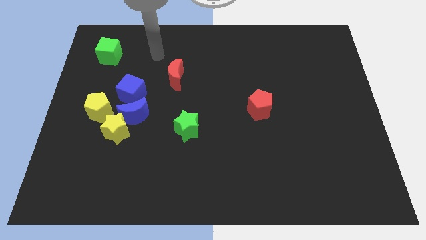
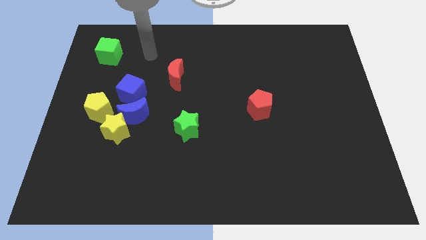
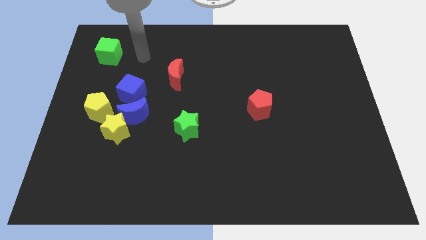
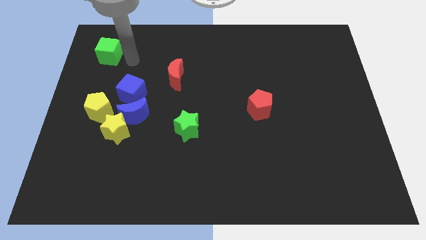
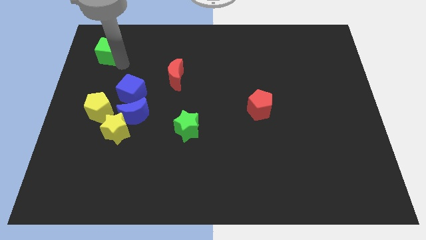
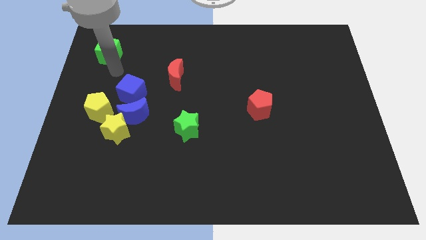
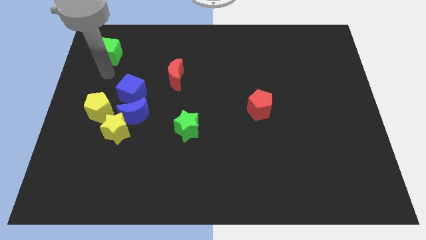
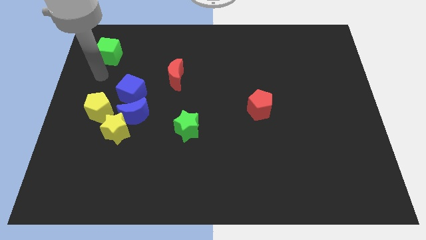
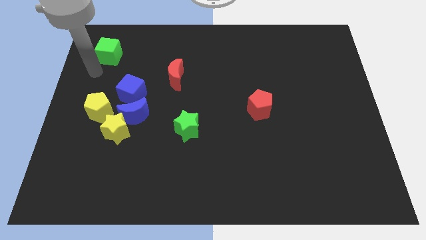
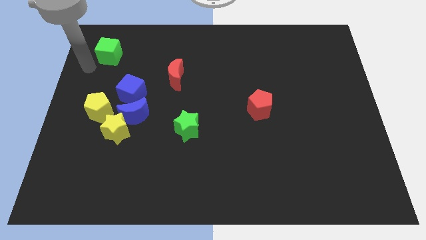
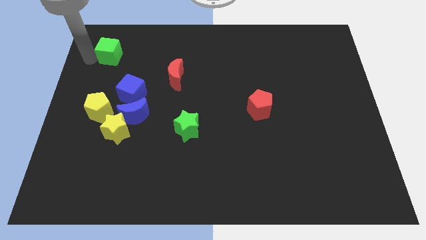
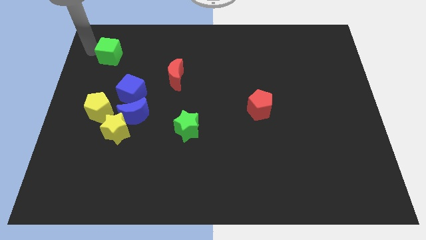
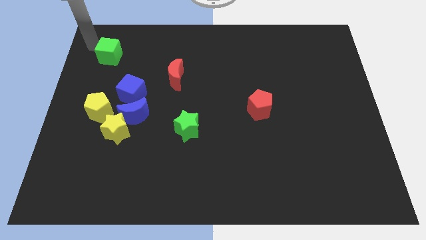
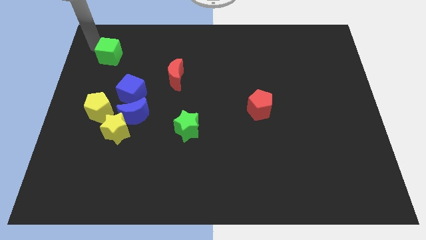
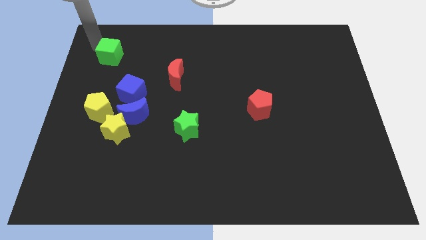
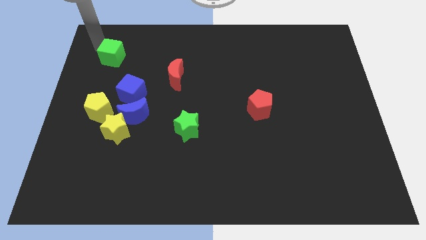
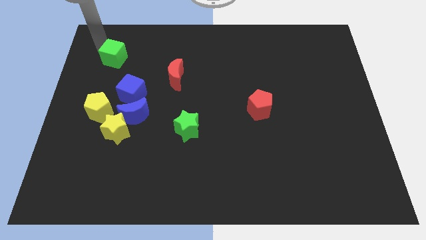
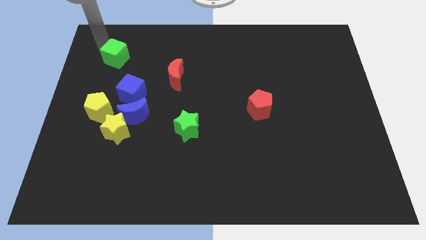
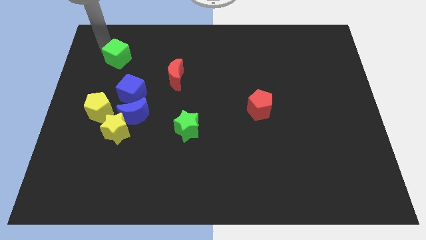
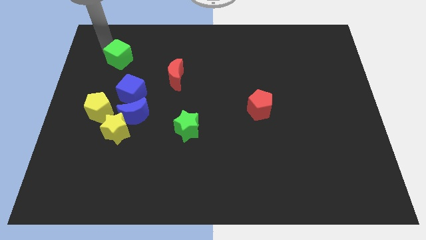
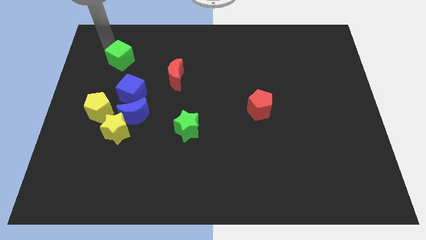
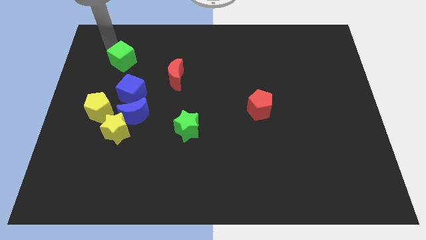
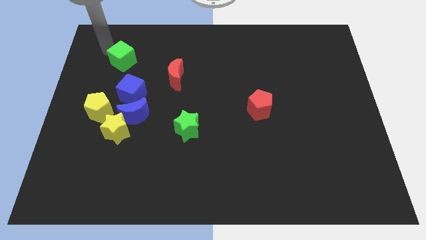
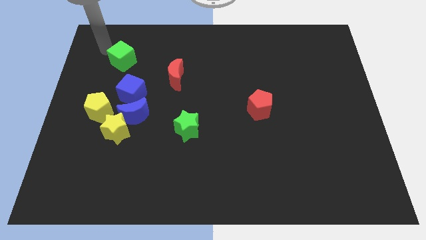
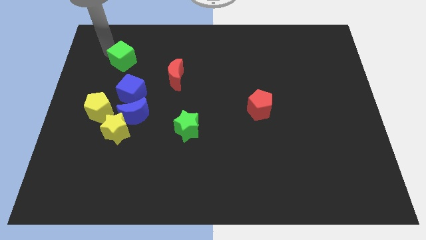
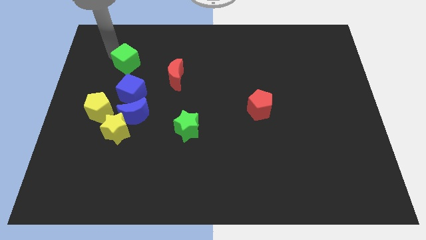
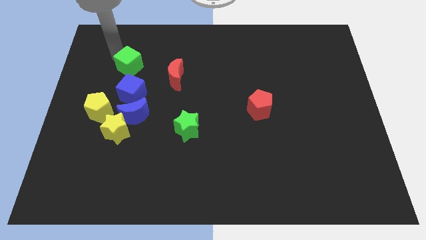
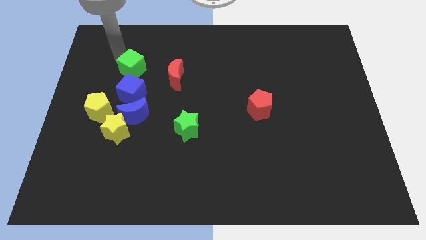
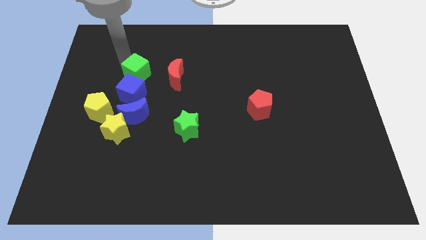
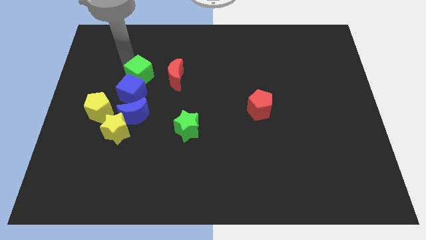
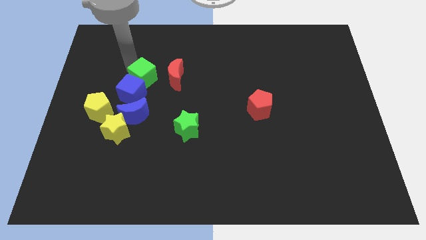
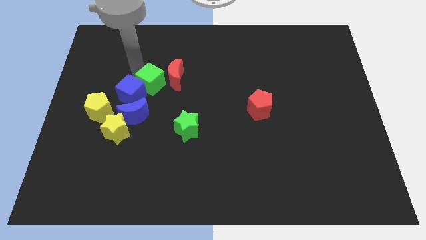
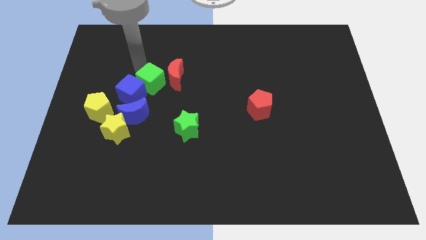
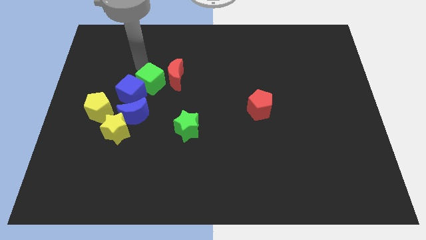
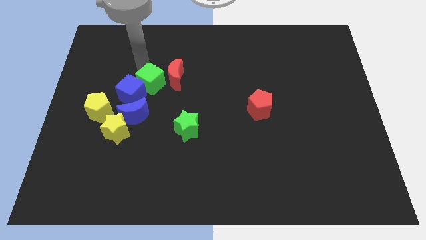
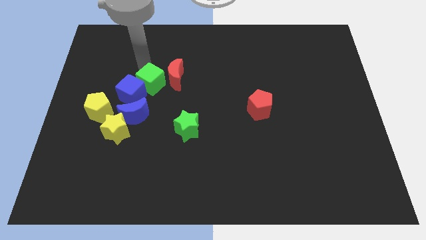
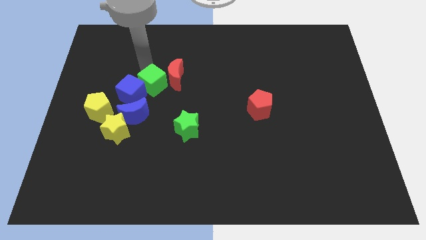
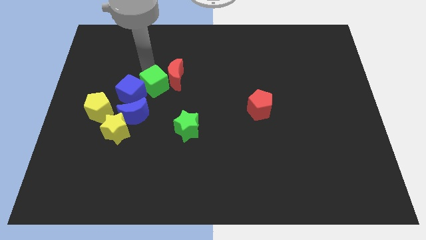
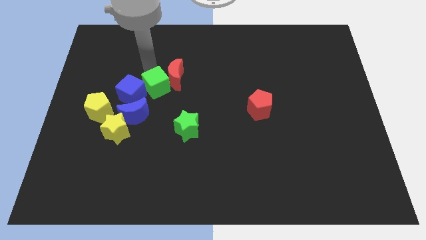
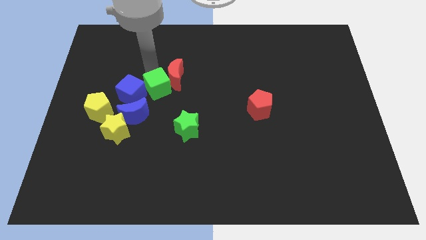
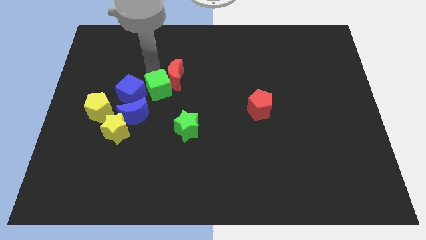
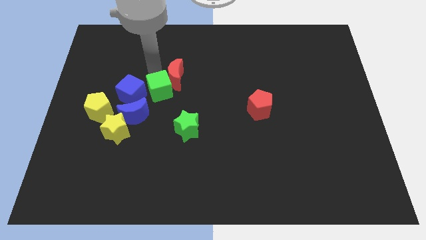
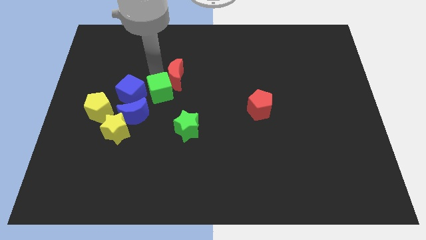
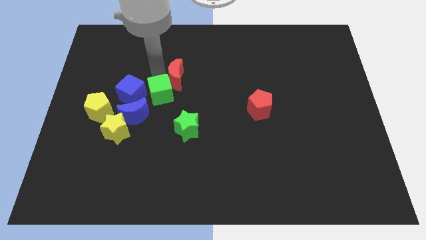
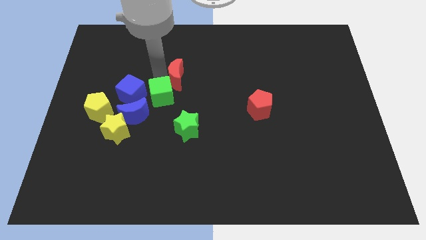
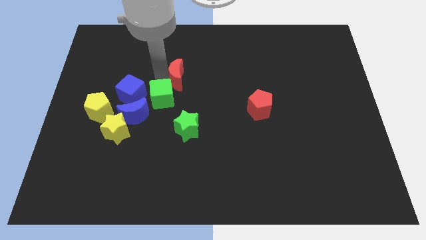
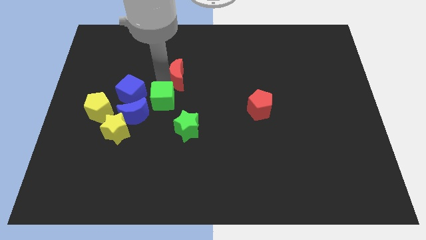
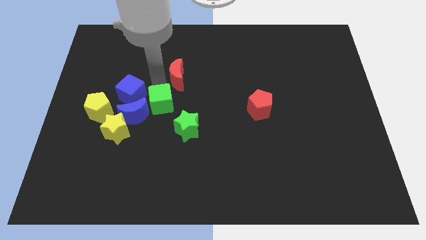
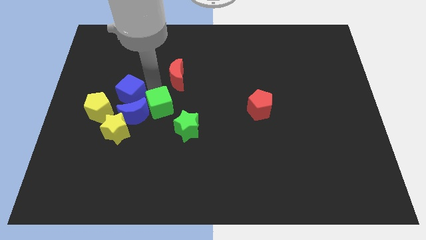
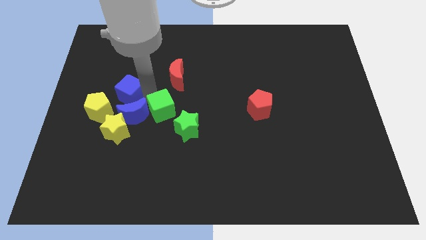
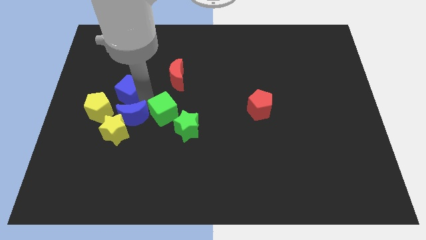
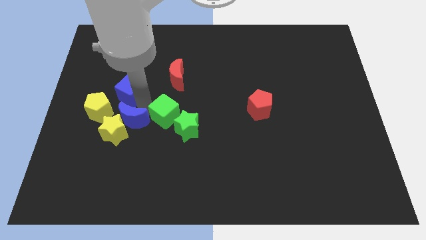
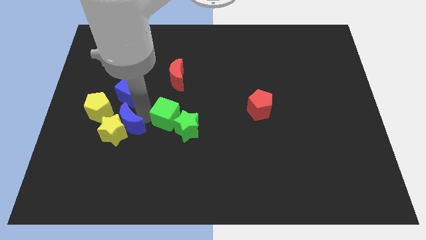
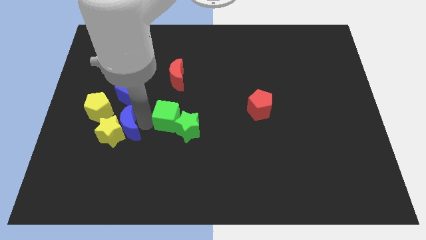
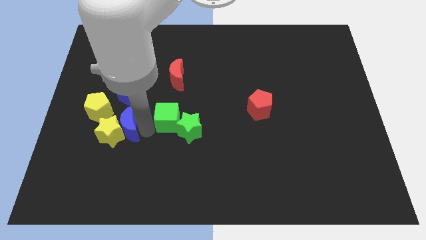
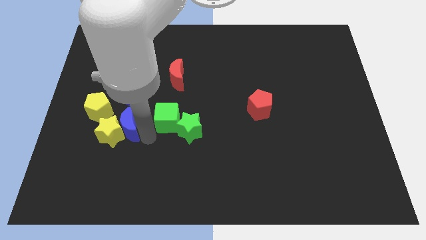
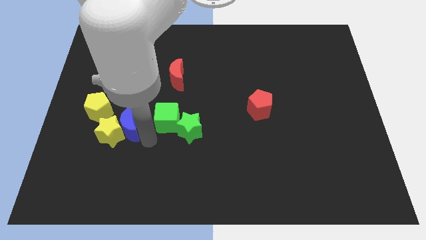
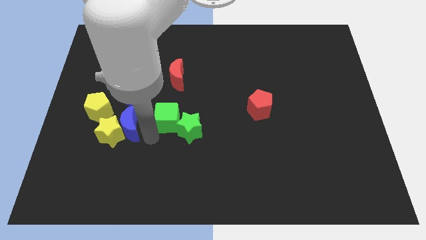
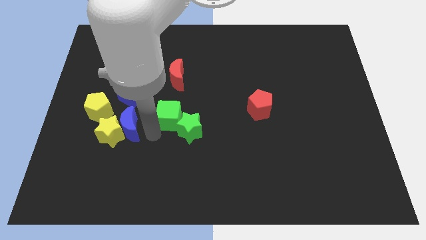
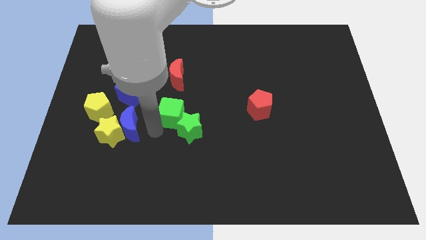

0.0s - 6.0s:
slide the green cube to the top of the green star
